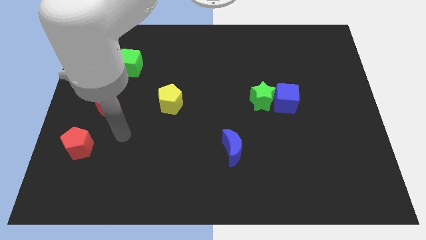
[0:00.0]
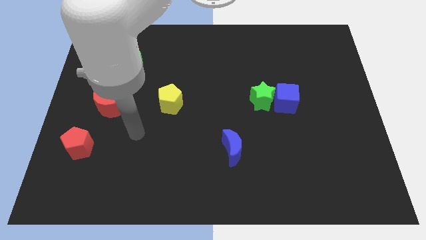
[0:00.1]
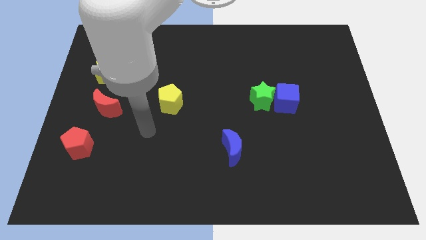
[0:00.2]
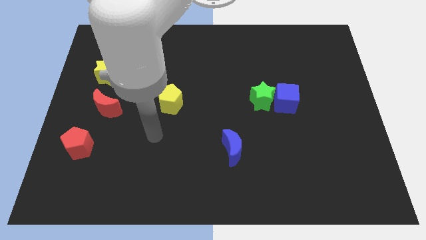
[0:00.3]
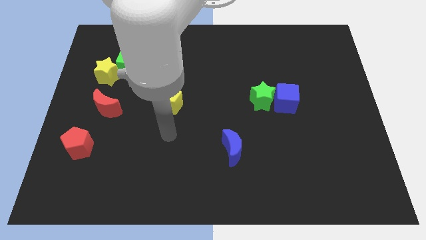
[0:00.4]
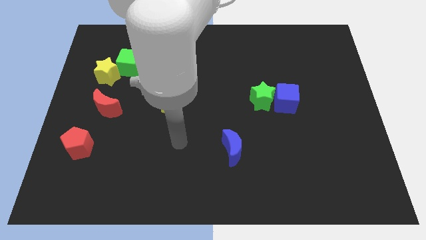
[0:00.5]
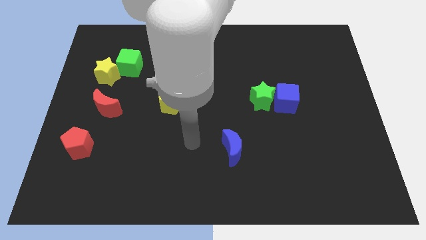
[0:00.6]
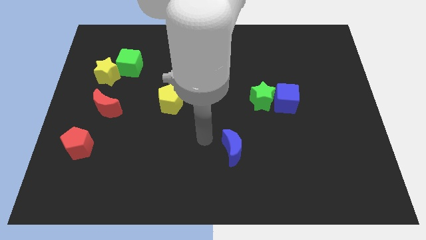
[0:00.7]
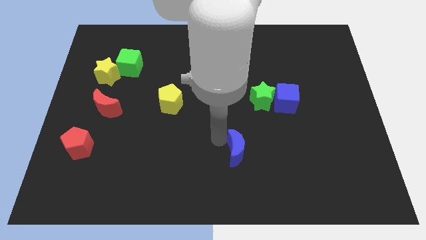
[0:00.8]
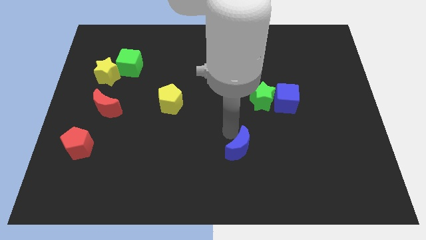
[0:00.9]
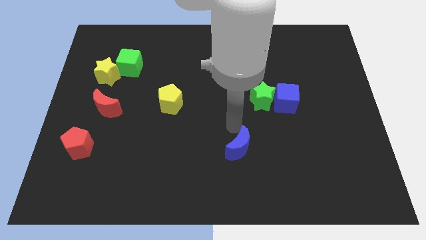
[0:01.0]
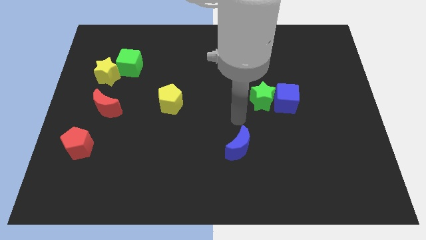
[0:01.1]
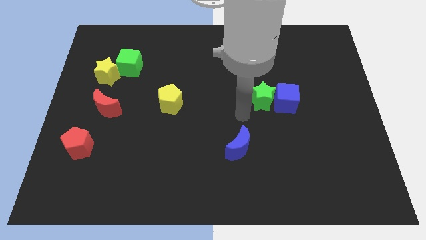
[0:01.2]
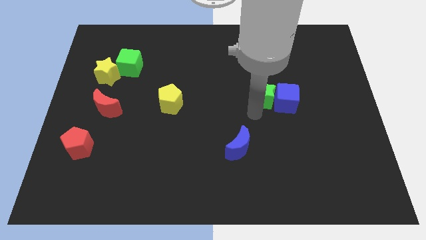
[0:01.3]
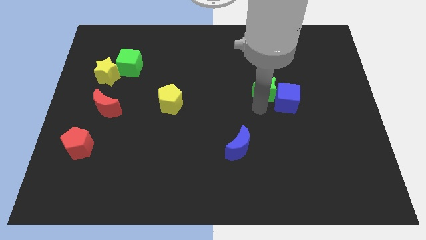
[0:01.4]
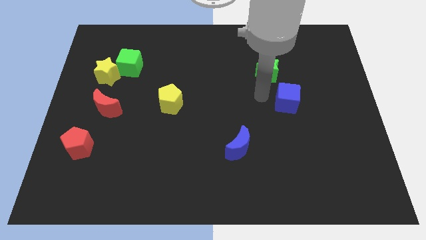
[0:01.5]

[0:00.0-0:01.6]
separate the blue cube from the green star

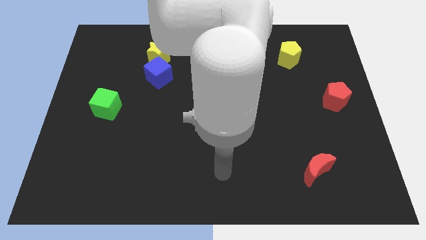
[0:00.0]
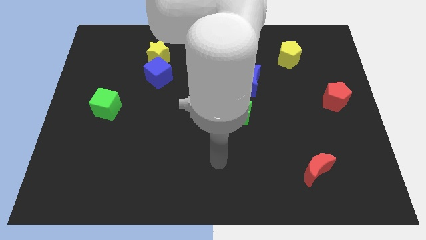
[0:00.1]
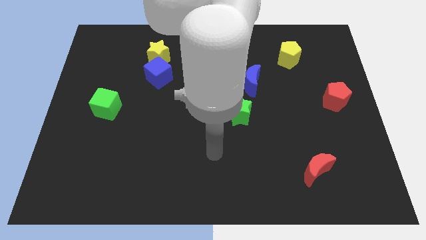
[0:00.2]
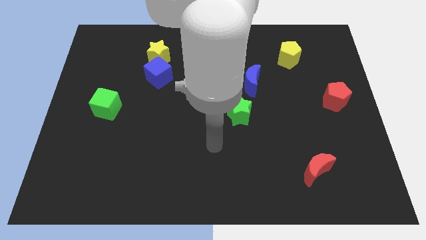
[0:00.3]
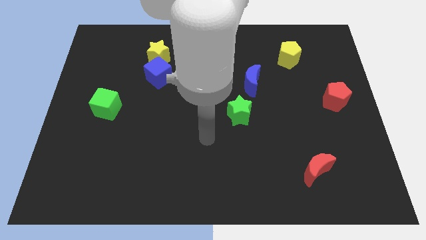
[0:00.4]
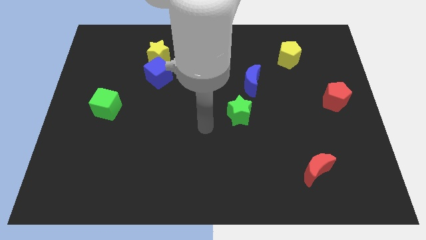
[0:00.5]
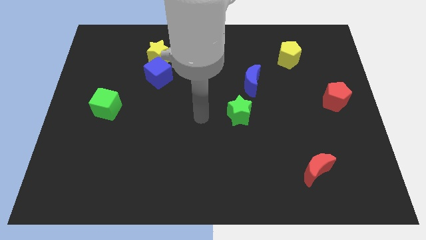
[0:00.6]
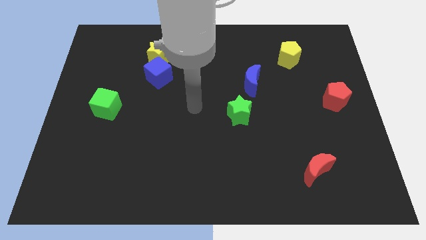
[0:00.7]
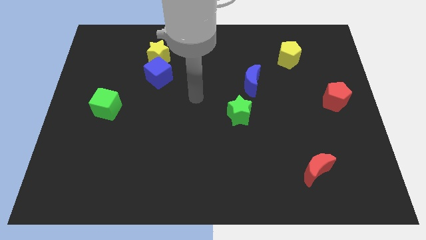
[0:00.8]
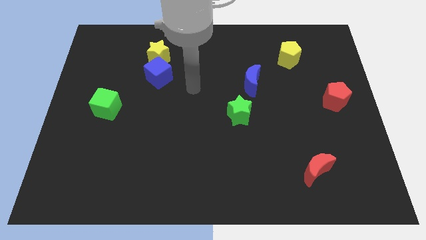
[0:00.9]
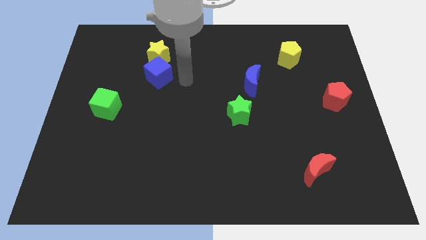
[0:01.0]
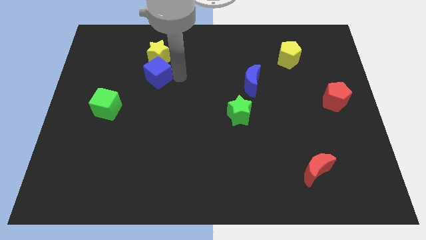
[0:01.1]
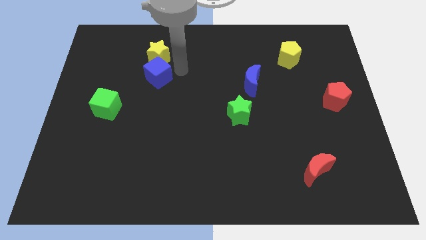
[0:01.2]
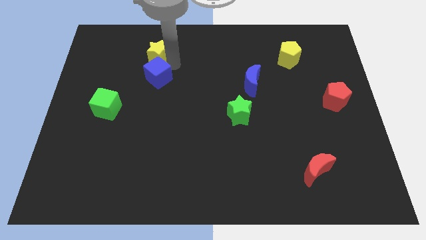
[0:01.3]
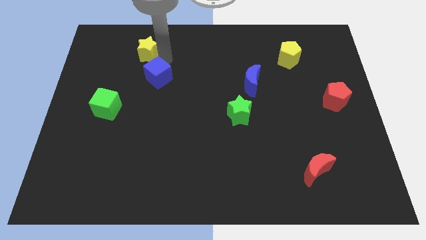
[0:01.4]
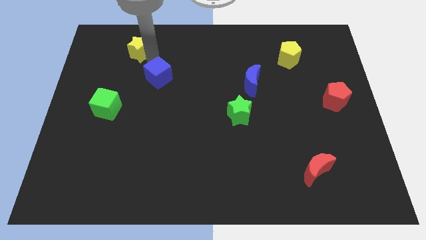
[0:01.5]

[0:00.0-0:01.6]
separate the blue cube from the yellow star

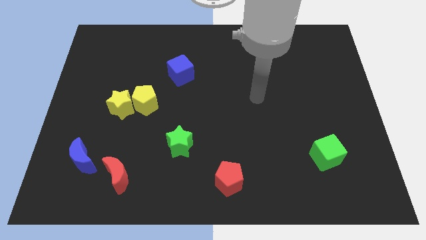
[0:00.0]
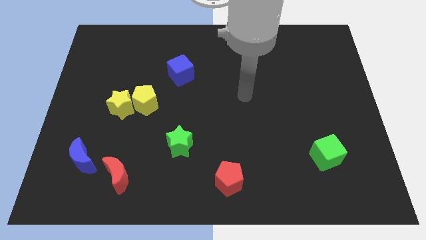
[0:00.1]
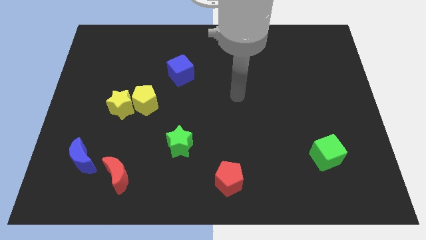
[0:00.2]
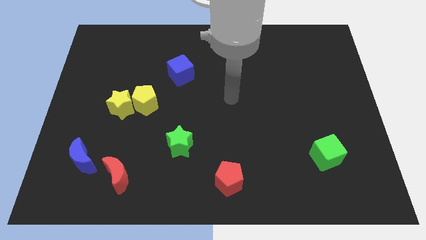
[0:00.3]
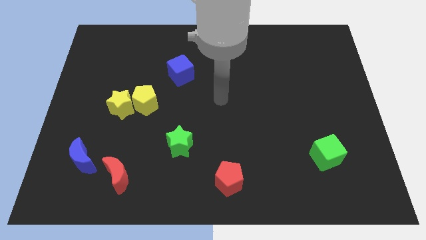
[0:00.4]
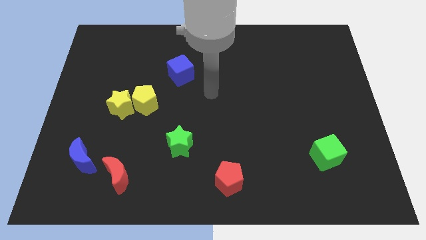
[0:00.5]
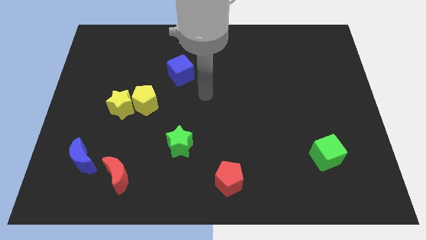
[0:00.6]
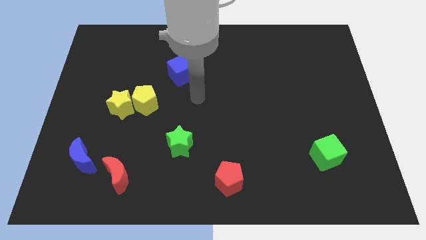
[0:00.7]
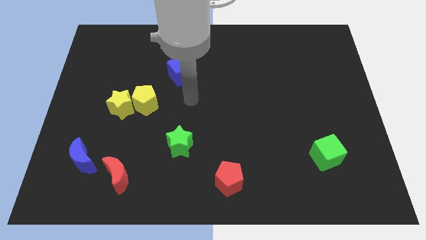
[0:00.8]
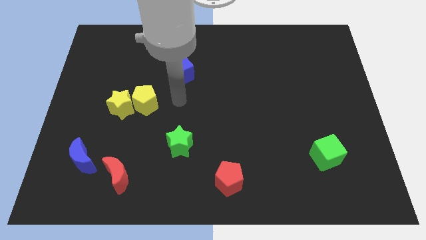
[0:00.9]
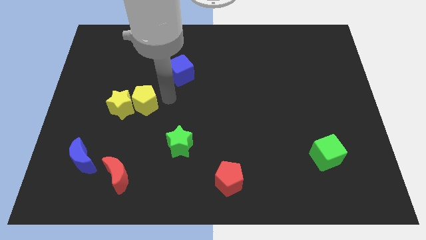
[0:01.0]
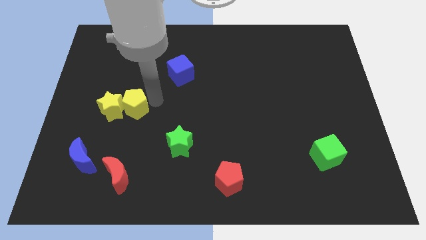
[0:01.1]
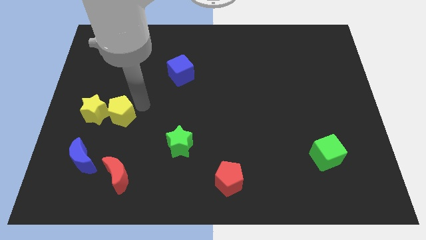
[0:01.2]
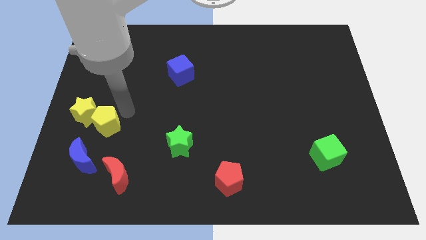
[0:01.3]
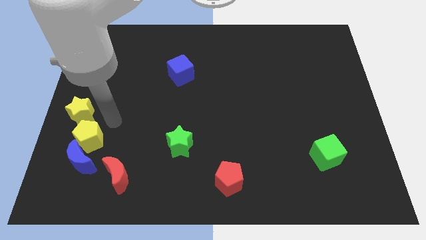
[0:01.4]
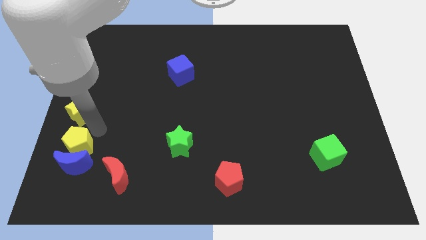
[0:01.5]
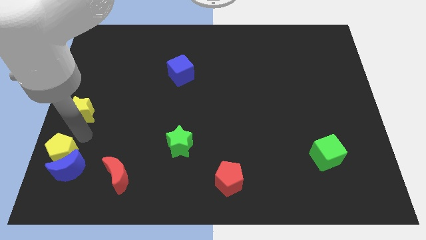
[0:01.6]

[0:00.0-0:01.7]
separate the yellow star from the yellow pentagon

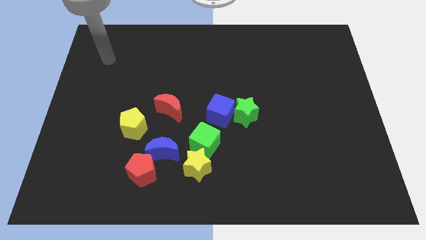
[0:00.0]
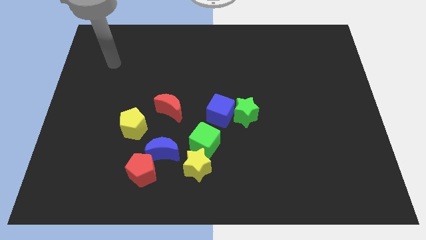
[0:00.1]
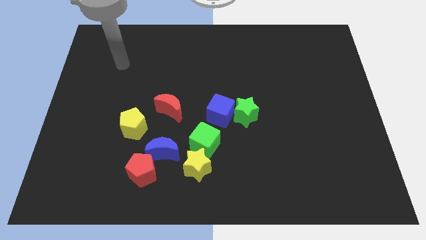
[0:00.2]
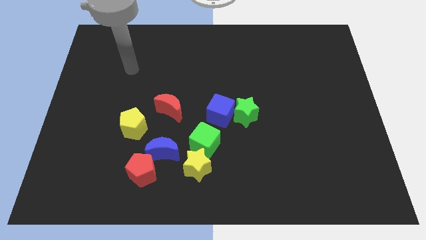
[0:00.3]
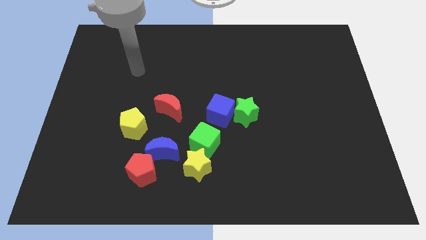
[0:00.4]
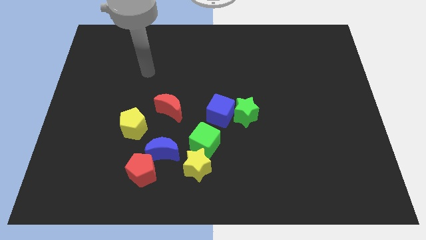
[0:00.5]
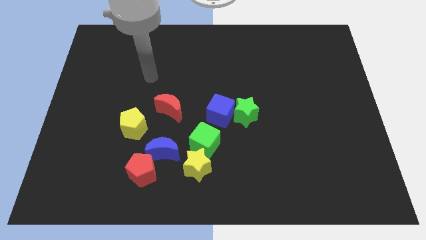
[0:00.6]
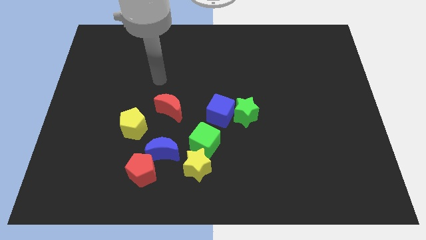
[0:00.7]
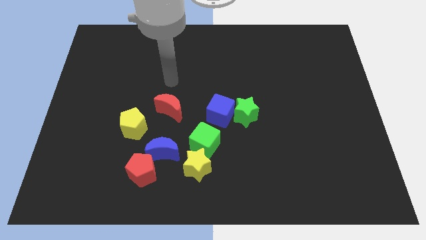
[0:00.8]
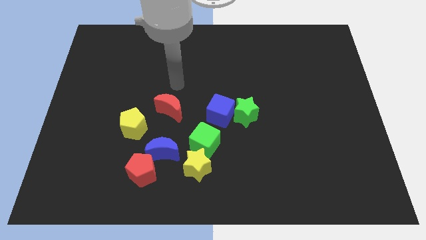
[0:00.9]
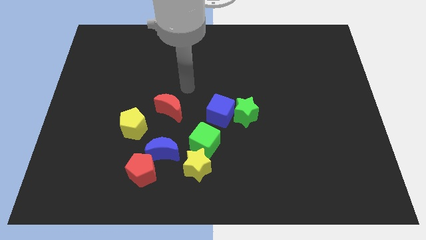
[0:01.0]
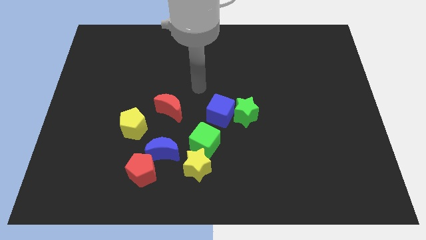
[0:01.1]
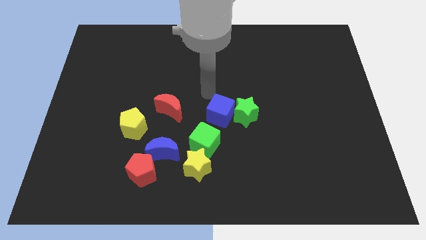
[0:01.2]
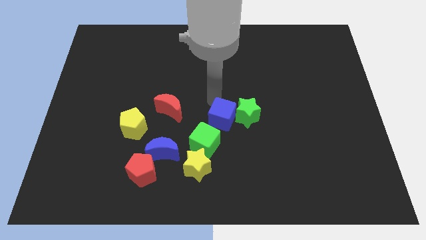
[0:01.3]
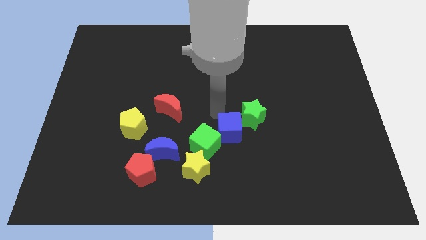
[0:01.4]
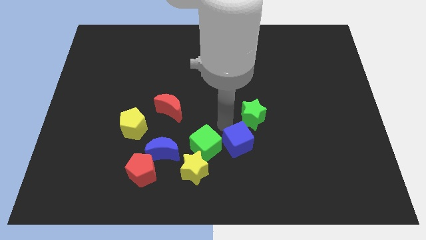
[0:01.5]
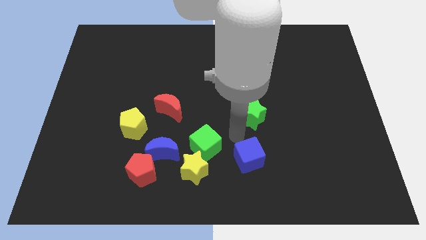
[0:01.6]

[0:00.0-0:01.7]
pull the green star apart from the blue cube

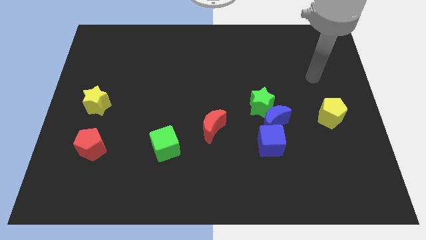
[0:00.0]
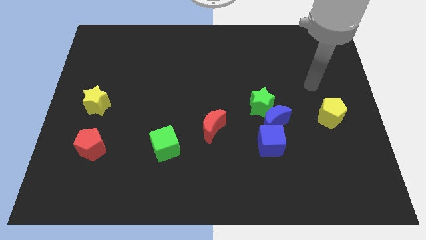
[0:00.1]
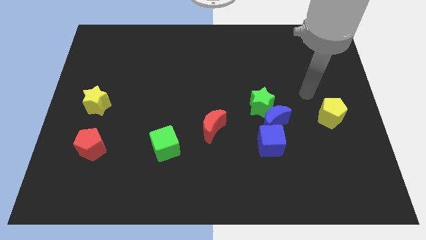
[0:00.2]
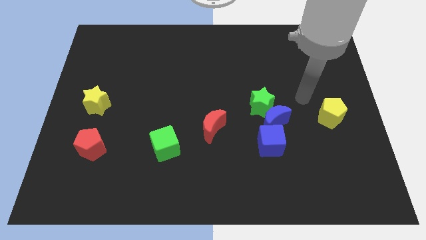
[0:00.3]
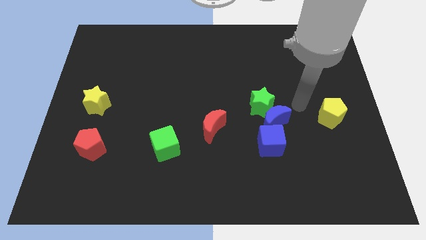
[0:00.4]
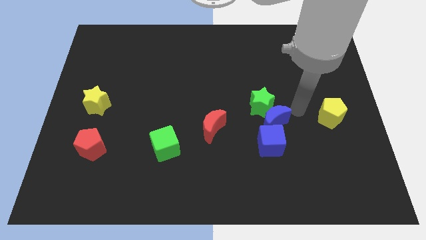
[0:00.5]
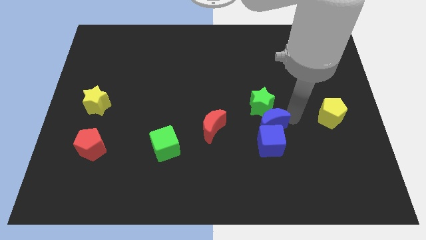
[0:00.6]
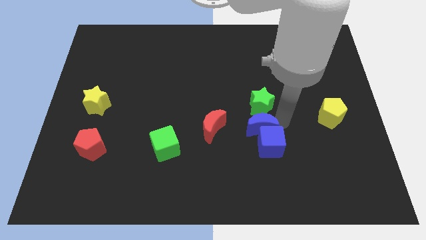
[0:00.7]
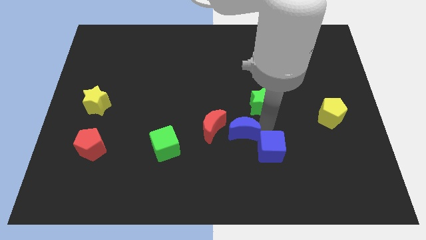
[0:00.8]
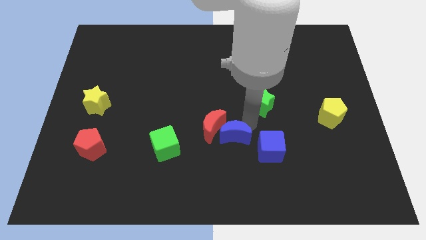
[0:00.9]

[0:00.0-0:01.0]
move the green star away from the blue moon

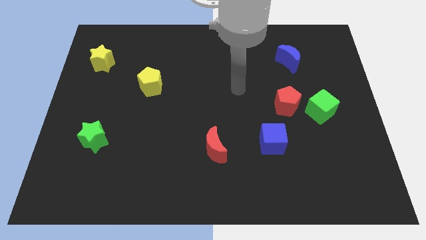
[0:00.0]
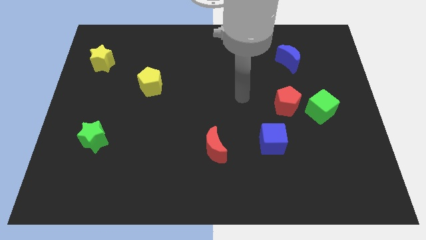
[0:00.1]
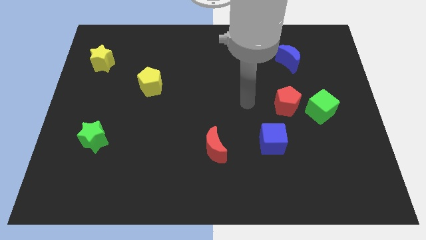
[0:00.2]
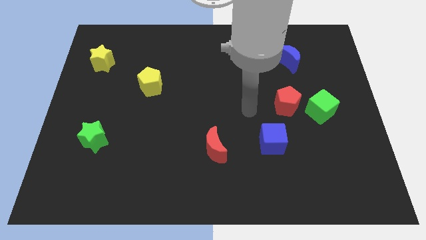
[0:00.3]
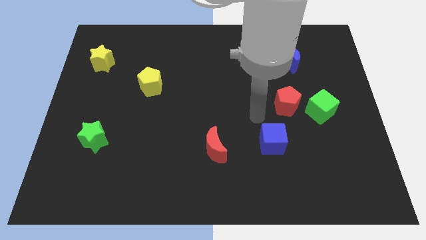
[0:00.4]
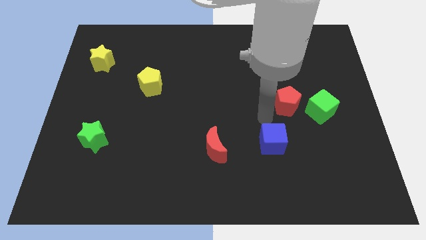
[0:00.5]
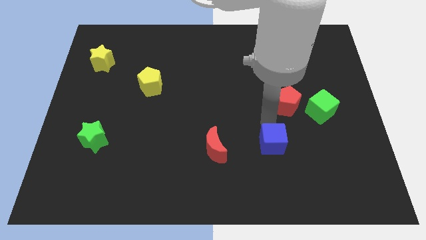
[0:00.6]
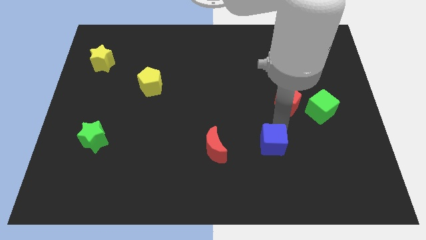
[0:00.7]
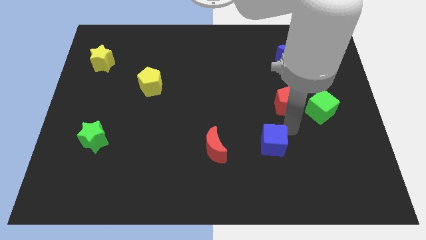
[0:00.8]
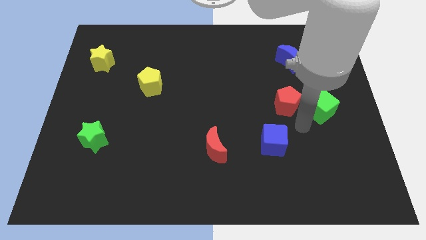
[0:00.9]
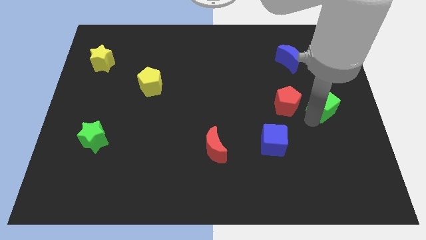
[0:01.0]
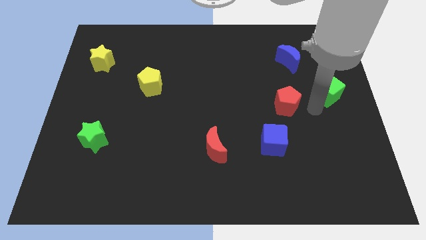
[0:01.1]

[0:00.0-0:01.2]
pull the red pentagon apart from the green cube

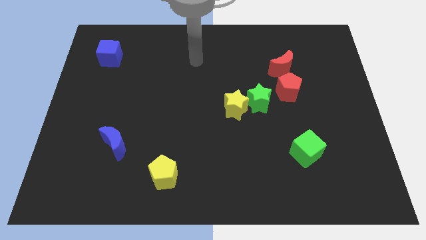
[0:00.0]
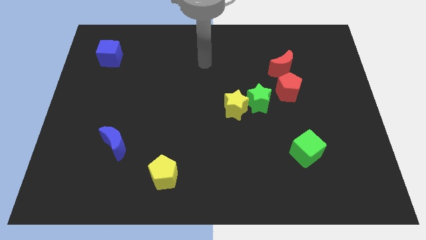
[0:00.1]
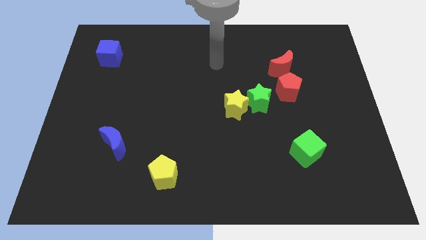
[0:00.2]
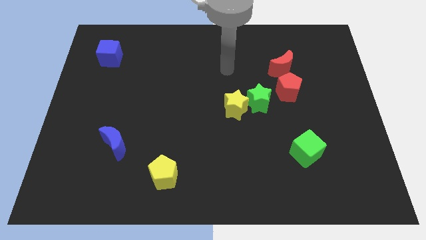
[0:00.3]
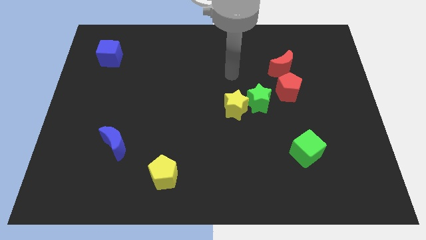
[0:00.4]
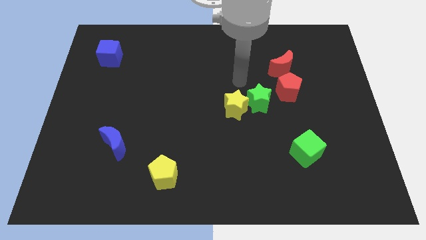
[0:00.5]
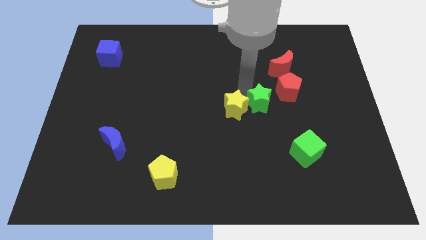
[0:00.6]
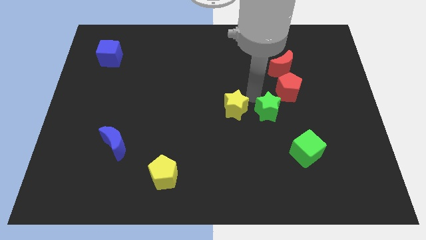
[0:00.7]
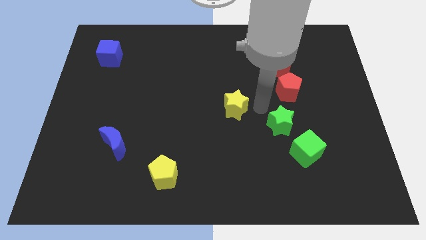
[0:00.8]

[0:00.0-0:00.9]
separate the yellow star from the green star
